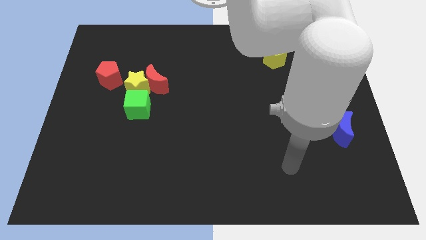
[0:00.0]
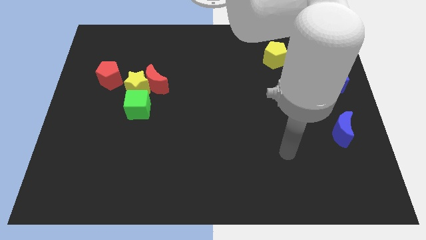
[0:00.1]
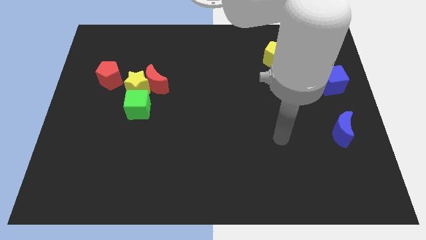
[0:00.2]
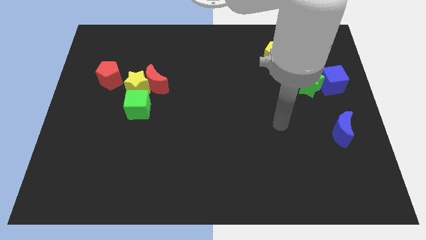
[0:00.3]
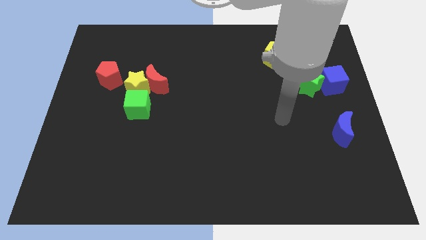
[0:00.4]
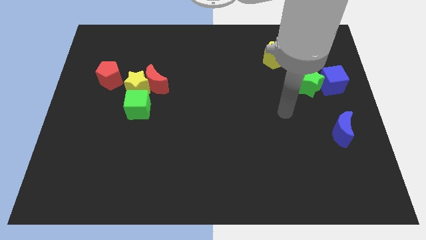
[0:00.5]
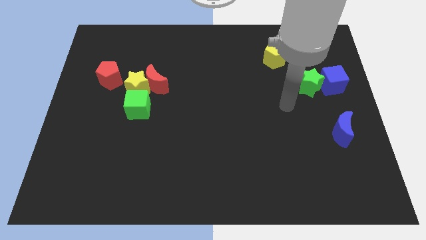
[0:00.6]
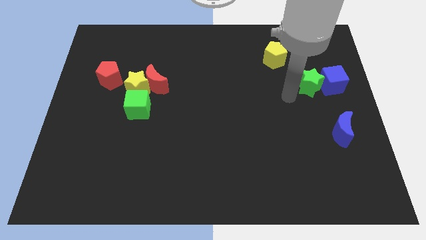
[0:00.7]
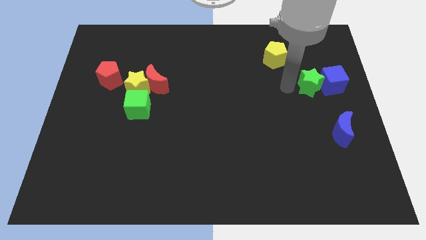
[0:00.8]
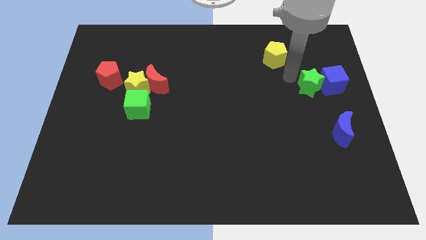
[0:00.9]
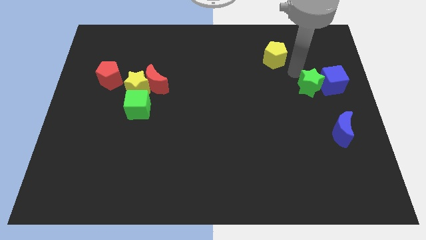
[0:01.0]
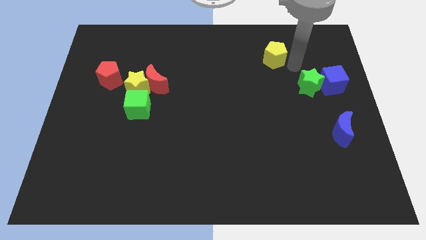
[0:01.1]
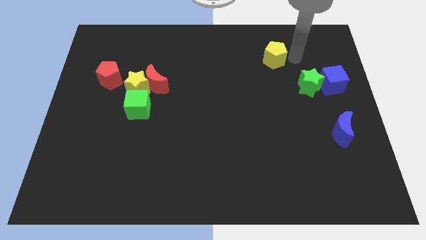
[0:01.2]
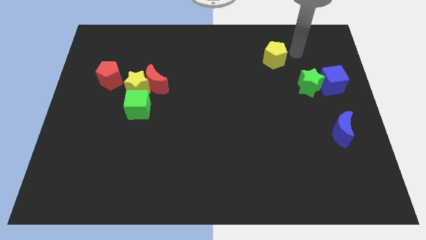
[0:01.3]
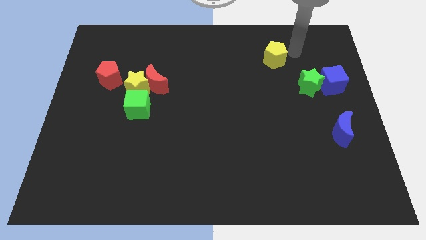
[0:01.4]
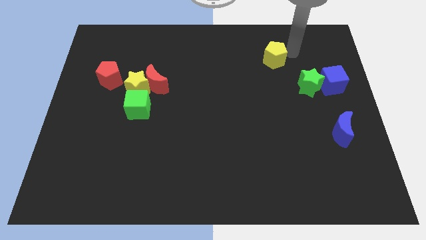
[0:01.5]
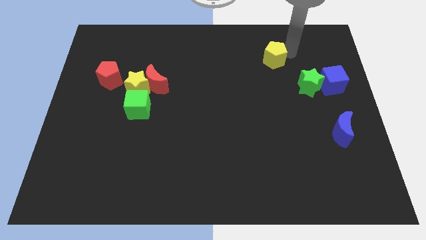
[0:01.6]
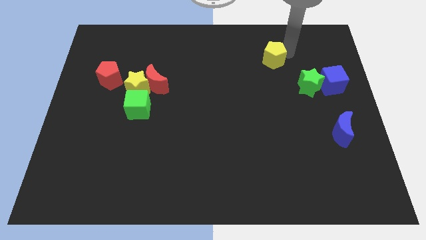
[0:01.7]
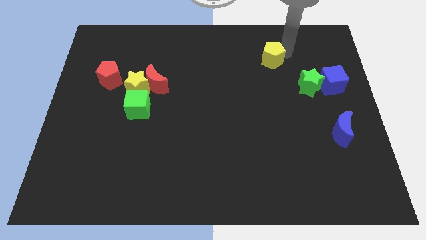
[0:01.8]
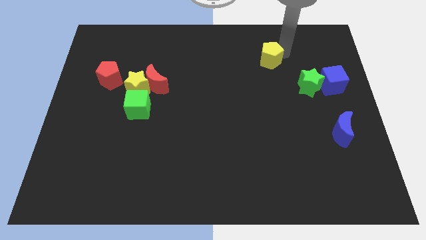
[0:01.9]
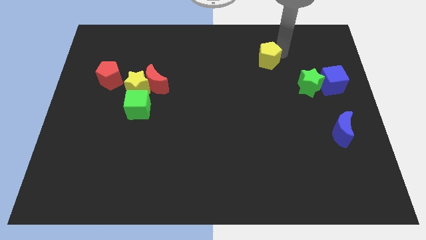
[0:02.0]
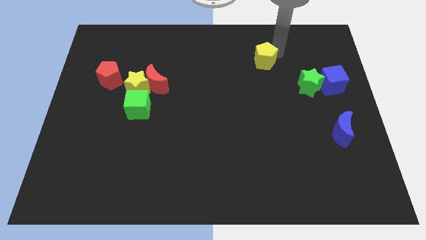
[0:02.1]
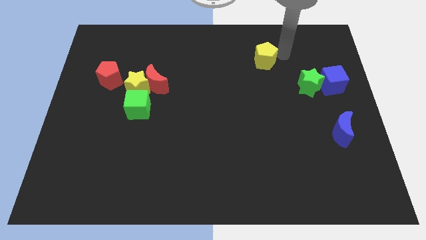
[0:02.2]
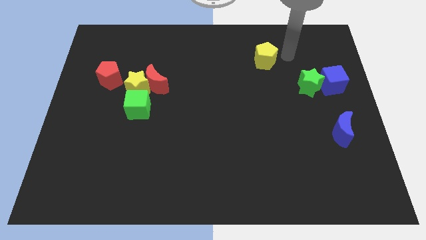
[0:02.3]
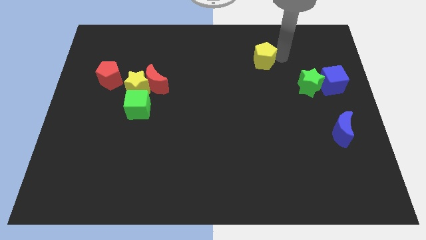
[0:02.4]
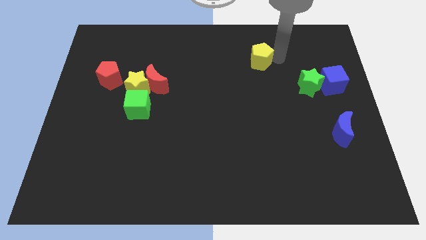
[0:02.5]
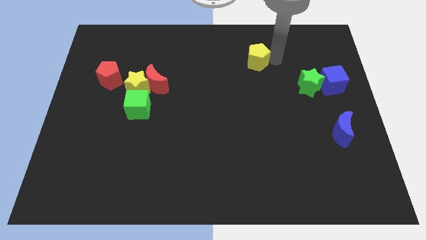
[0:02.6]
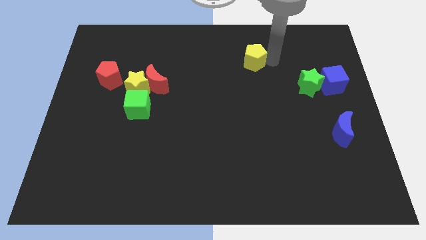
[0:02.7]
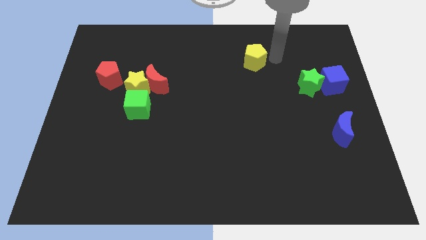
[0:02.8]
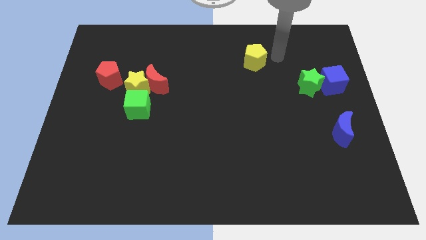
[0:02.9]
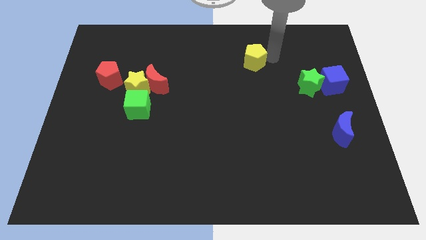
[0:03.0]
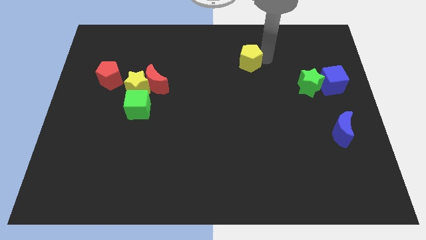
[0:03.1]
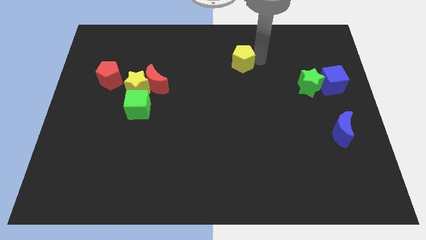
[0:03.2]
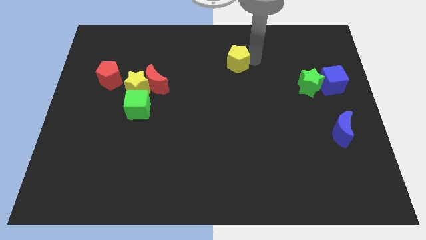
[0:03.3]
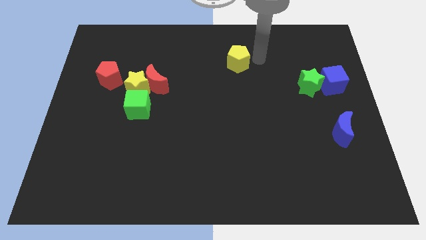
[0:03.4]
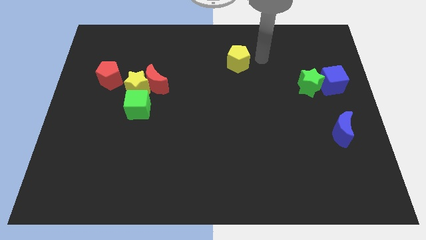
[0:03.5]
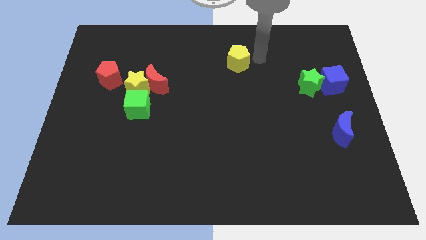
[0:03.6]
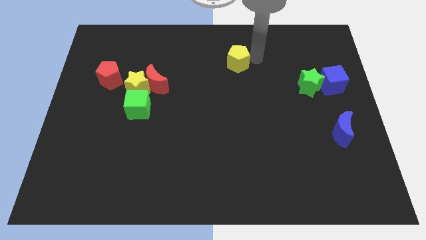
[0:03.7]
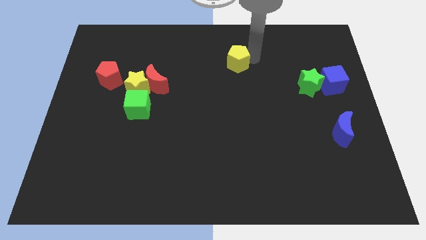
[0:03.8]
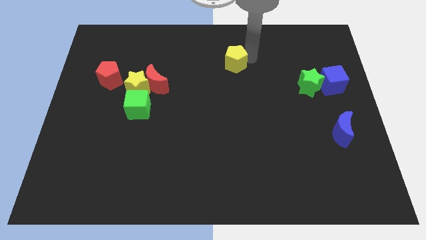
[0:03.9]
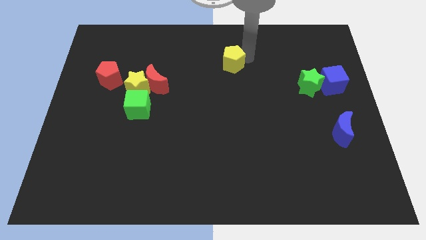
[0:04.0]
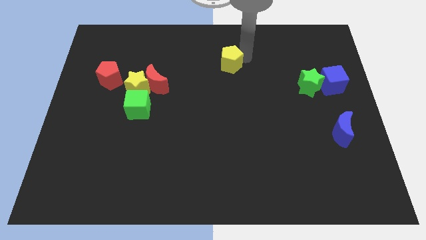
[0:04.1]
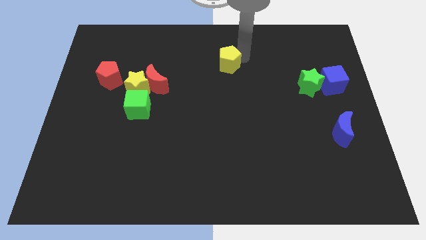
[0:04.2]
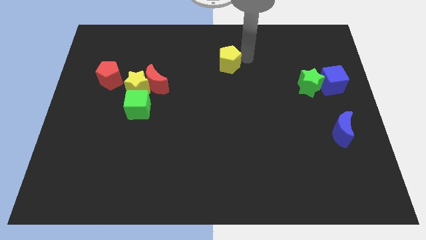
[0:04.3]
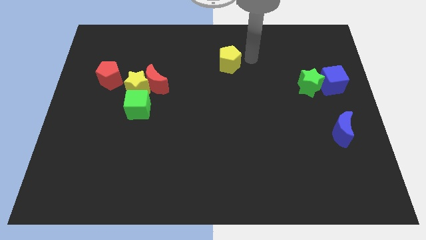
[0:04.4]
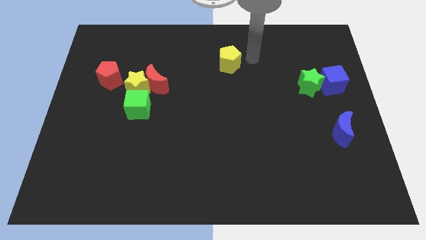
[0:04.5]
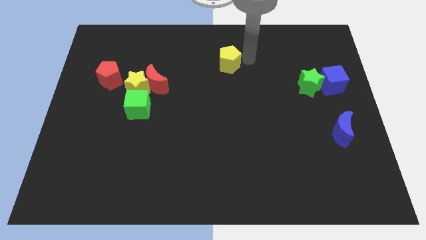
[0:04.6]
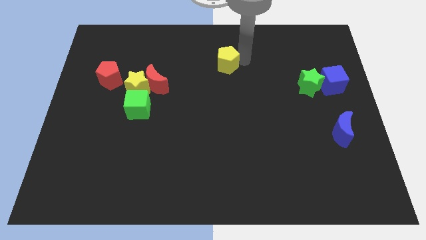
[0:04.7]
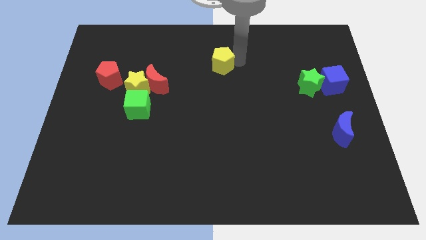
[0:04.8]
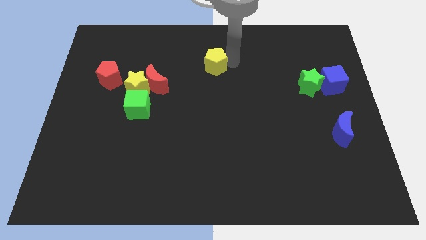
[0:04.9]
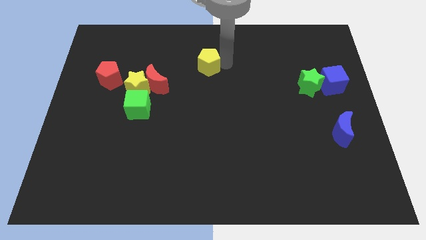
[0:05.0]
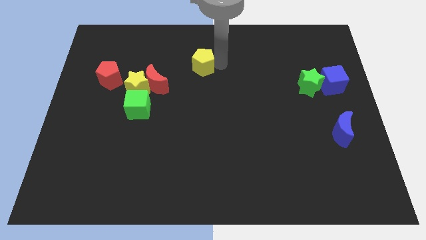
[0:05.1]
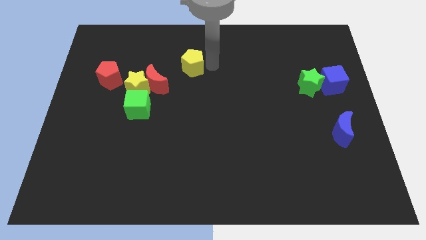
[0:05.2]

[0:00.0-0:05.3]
move the yellow pentagon left

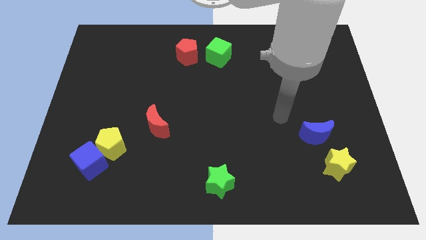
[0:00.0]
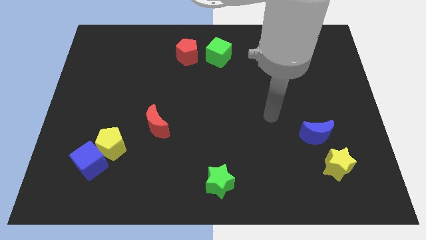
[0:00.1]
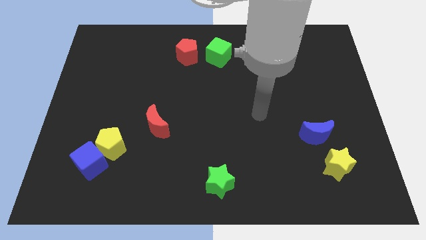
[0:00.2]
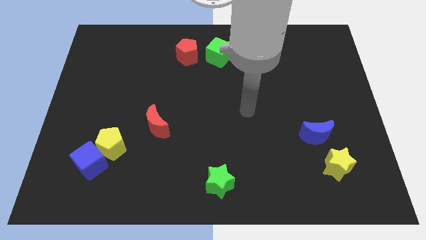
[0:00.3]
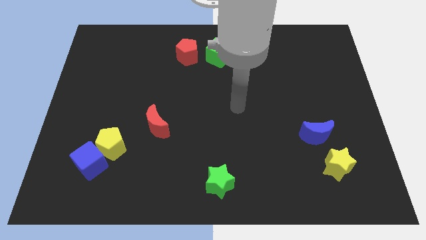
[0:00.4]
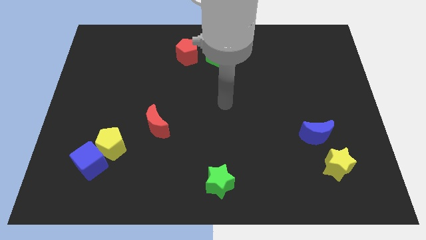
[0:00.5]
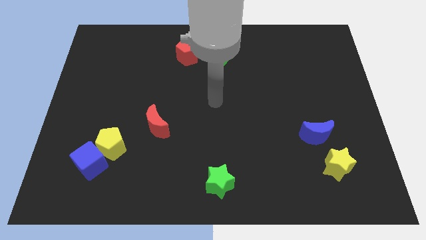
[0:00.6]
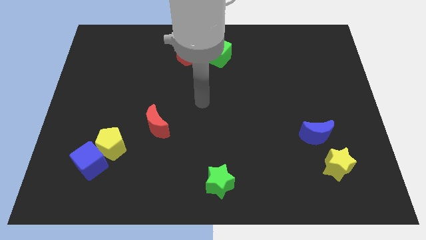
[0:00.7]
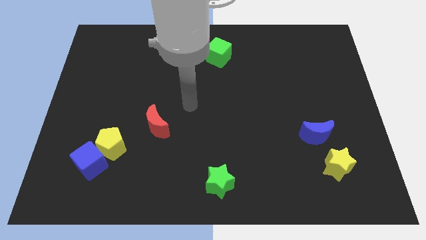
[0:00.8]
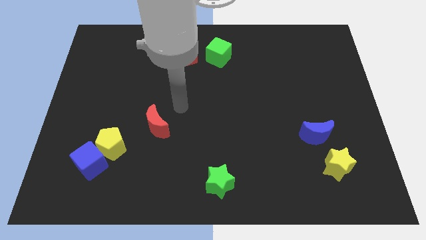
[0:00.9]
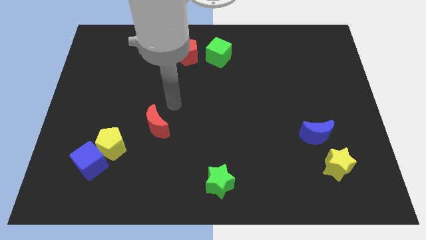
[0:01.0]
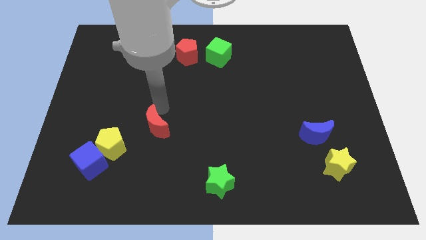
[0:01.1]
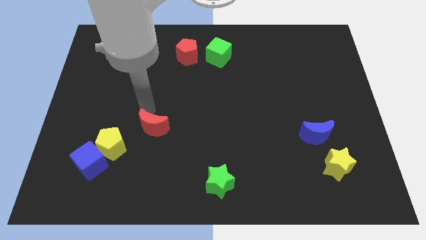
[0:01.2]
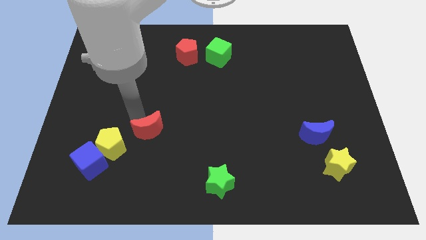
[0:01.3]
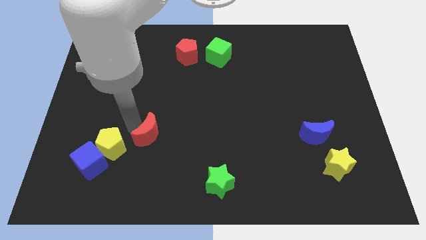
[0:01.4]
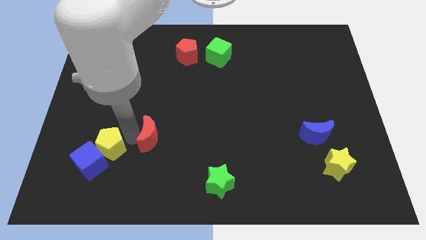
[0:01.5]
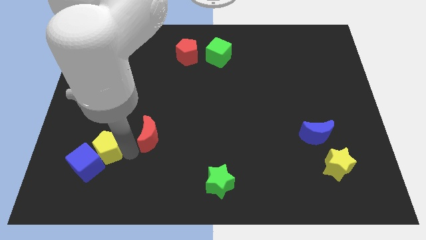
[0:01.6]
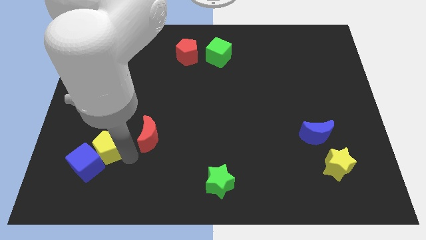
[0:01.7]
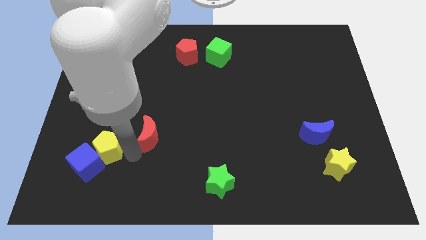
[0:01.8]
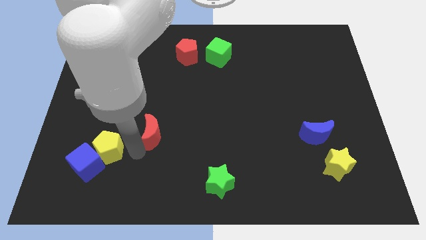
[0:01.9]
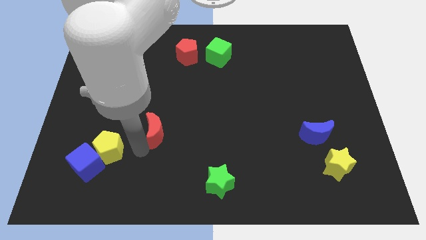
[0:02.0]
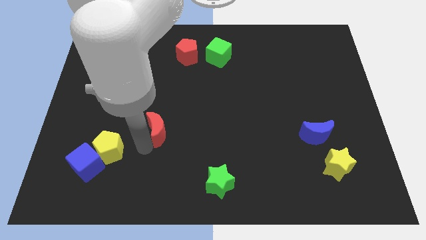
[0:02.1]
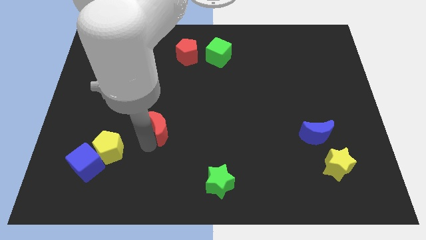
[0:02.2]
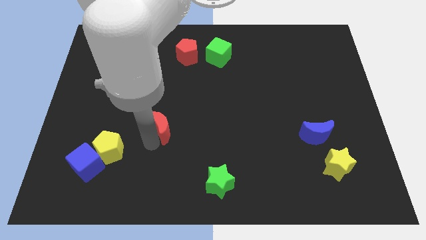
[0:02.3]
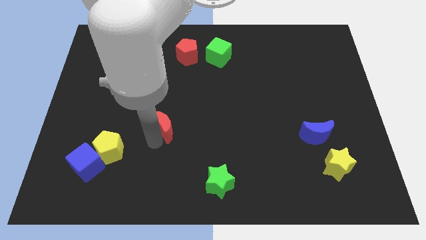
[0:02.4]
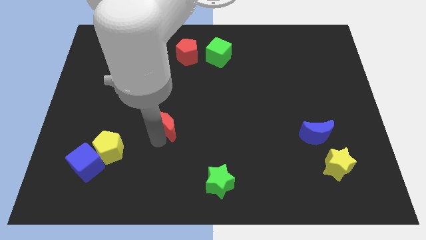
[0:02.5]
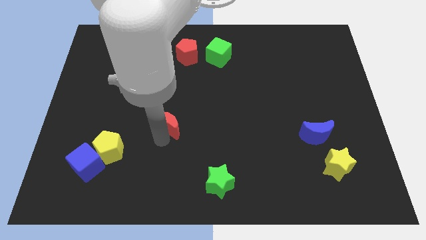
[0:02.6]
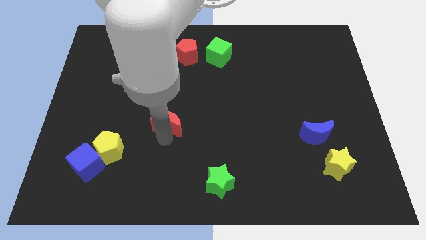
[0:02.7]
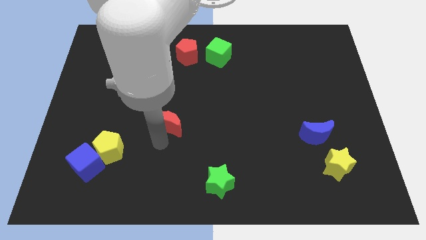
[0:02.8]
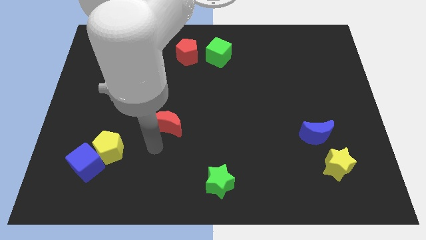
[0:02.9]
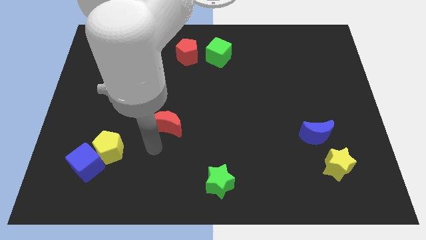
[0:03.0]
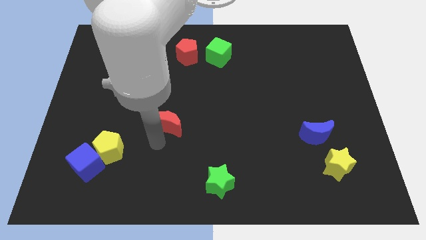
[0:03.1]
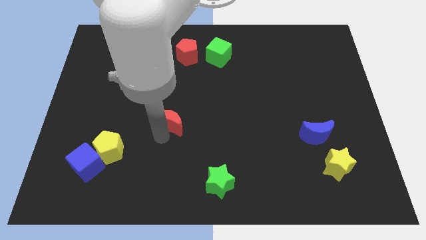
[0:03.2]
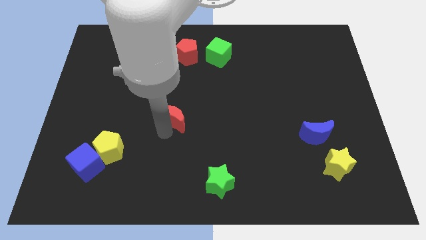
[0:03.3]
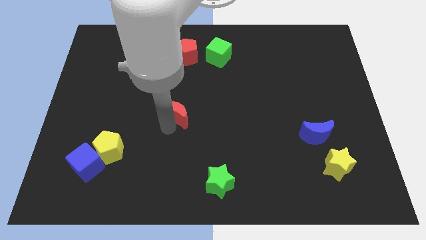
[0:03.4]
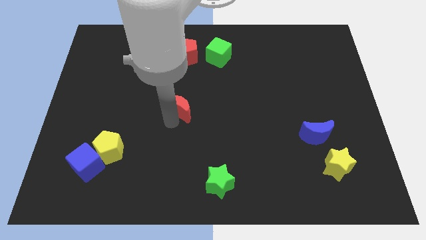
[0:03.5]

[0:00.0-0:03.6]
slightly move the red moon up and to the right diagonally
